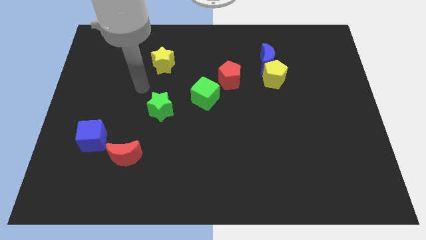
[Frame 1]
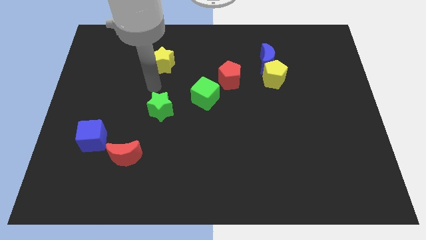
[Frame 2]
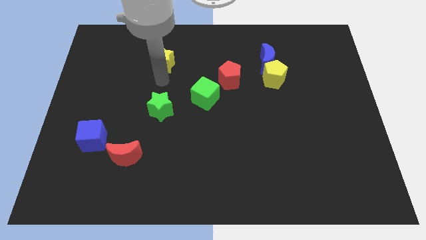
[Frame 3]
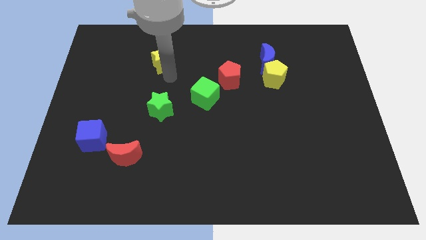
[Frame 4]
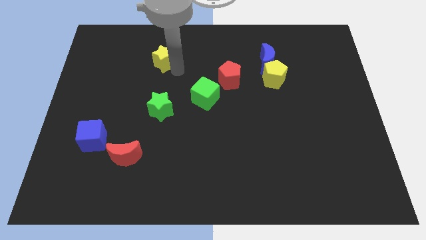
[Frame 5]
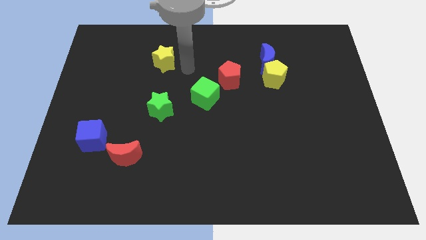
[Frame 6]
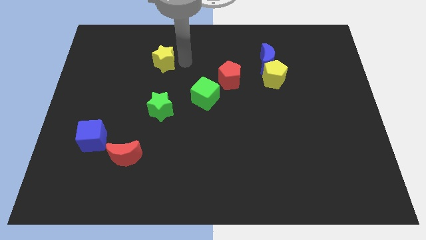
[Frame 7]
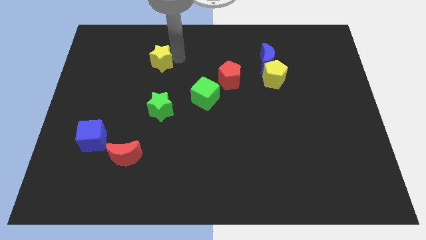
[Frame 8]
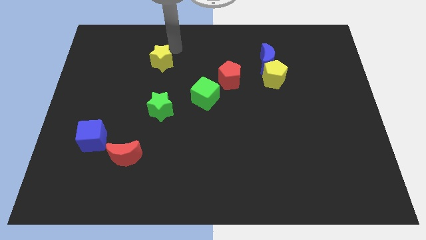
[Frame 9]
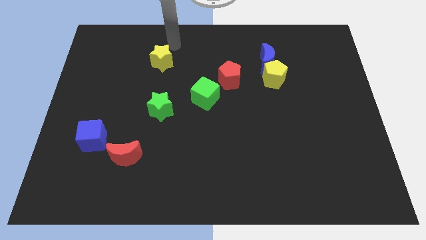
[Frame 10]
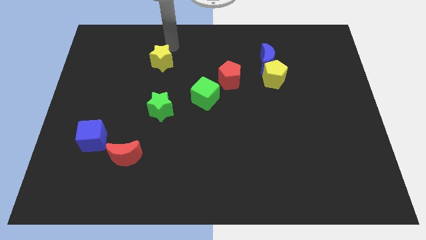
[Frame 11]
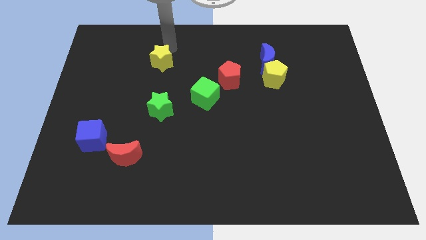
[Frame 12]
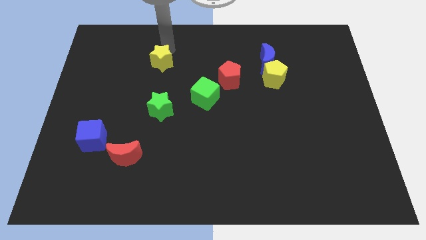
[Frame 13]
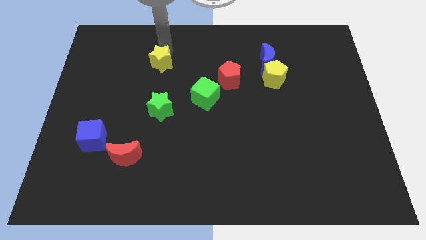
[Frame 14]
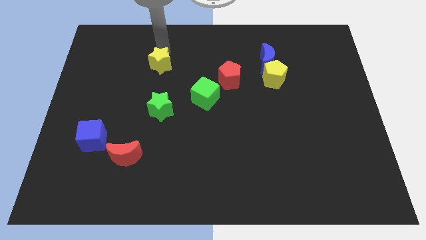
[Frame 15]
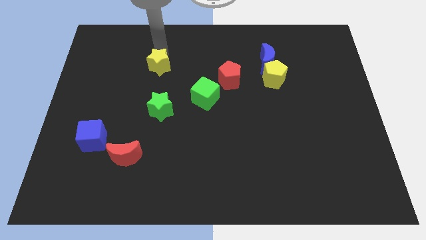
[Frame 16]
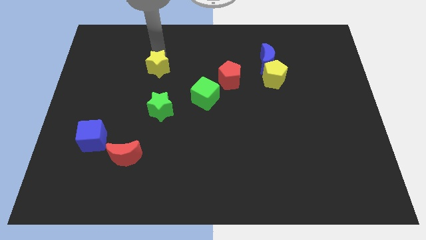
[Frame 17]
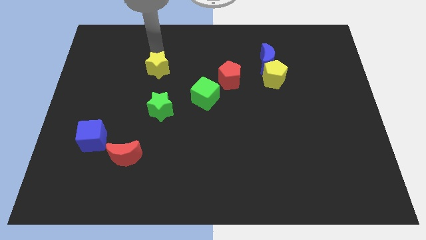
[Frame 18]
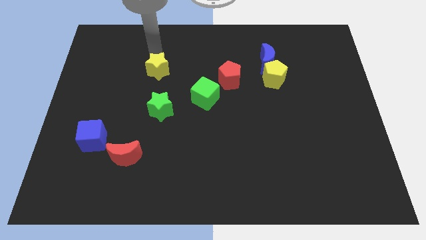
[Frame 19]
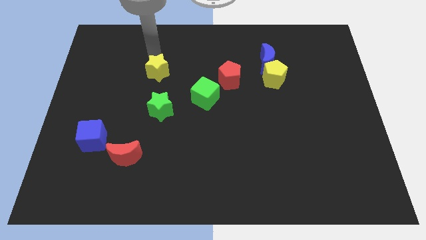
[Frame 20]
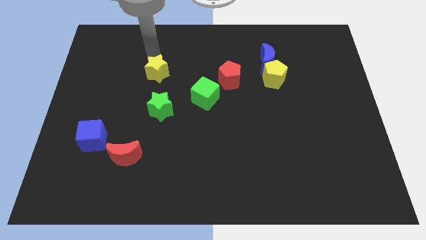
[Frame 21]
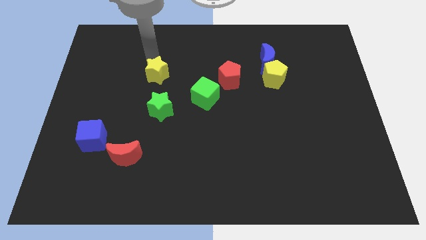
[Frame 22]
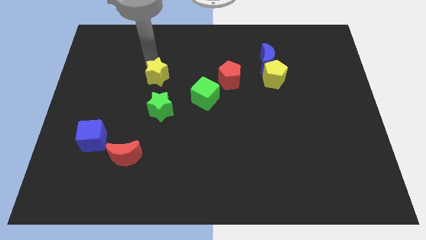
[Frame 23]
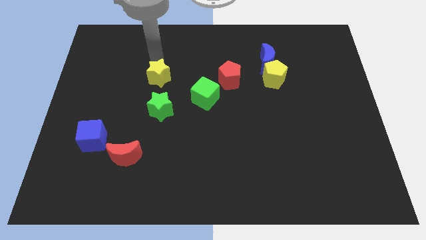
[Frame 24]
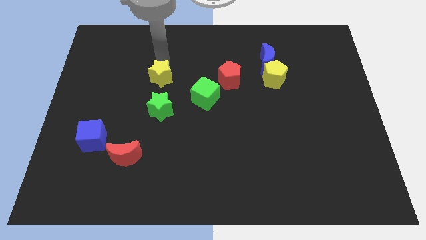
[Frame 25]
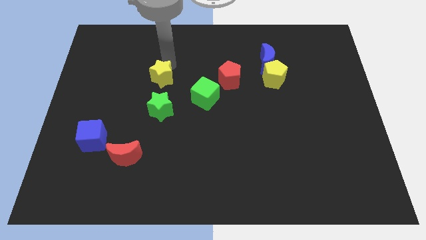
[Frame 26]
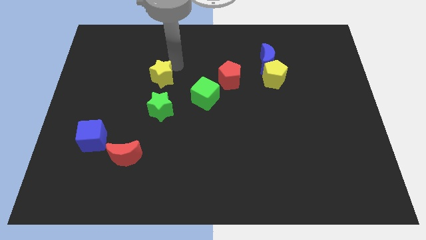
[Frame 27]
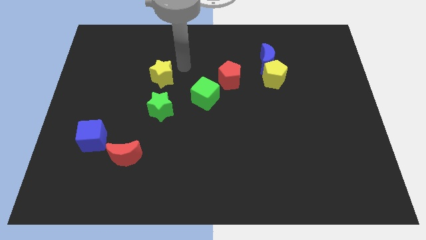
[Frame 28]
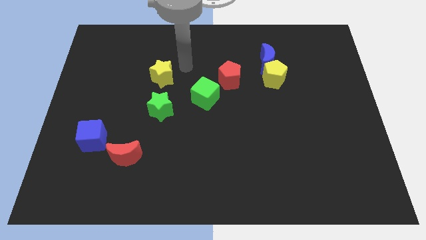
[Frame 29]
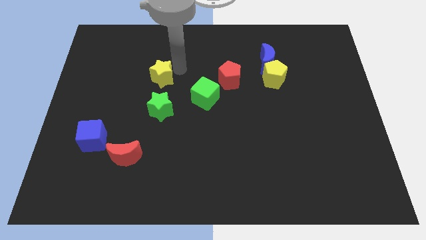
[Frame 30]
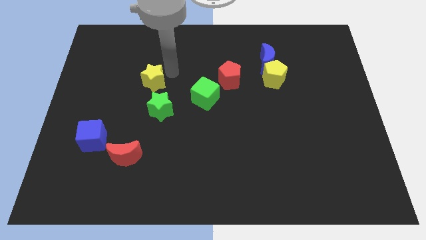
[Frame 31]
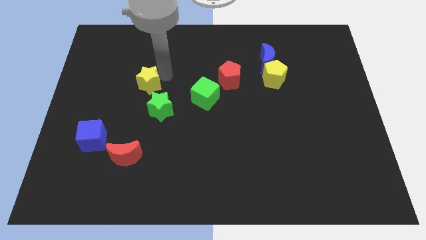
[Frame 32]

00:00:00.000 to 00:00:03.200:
push the yellow star a little bit diagonally down and to the left

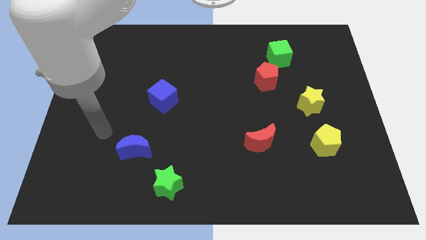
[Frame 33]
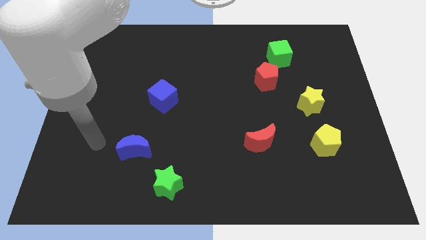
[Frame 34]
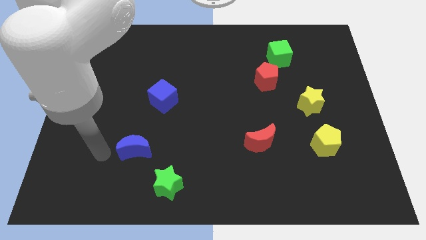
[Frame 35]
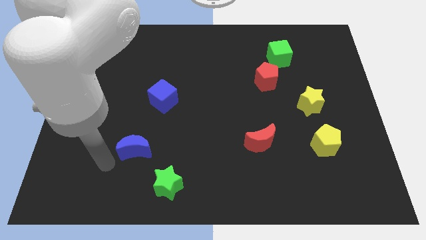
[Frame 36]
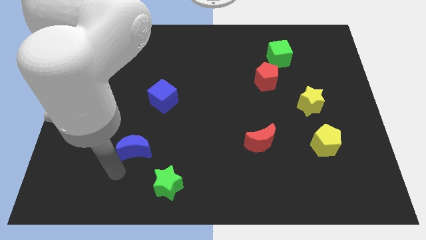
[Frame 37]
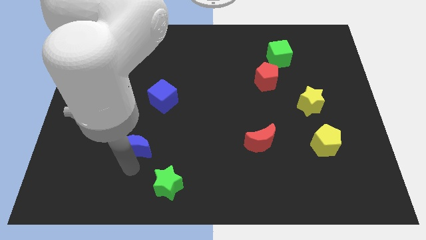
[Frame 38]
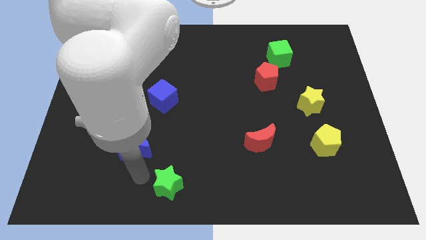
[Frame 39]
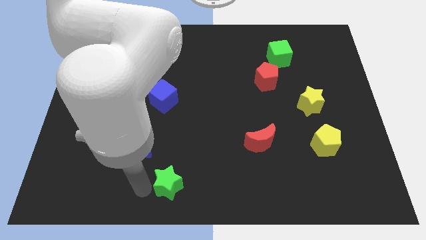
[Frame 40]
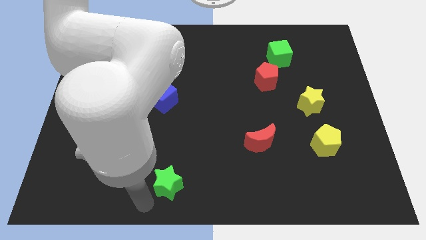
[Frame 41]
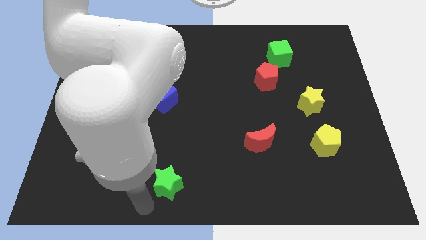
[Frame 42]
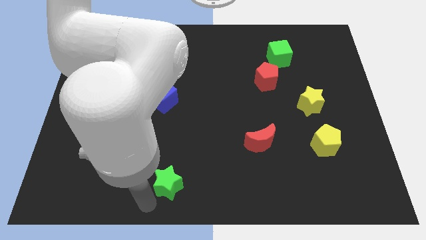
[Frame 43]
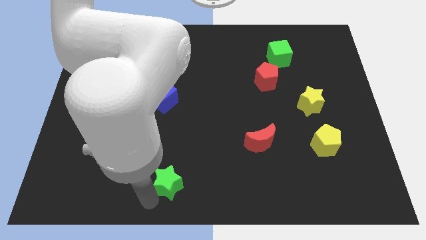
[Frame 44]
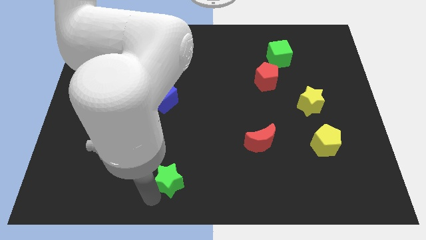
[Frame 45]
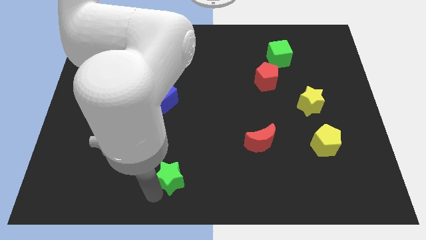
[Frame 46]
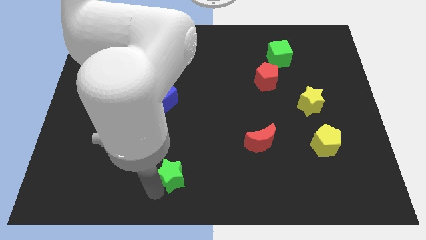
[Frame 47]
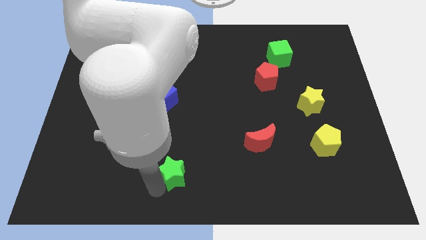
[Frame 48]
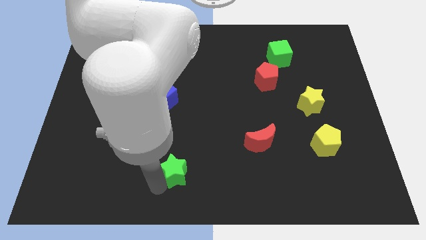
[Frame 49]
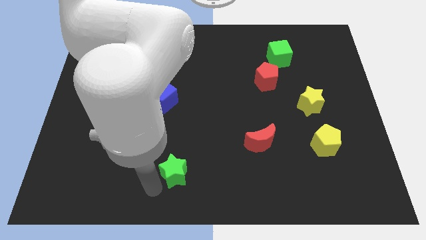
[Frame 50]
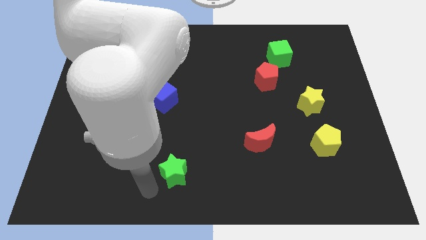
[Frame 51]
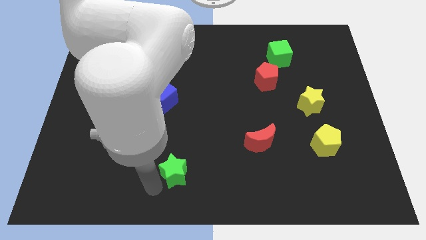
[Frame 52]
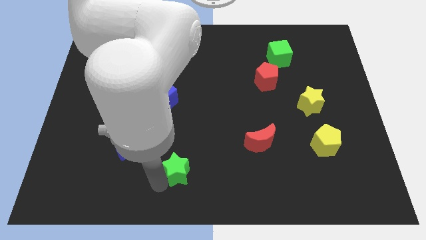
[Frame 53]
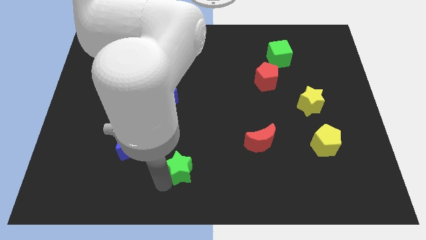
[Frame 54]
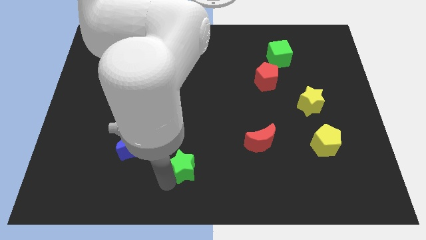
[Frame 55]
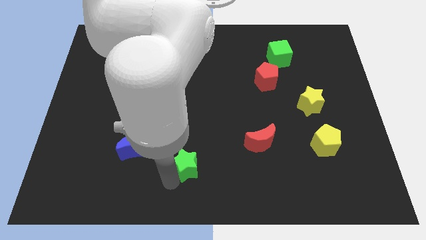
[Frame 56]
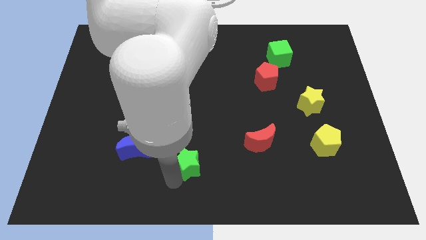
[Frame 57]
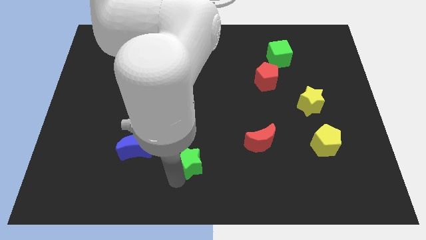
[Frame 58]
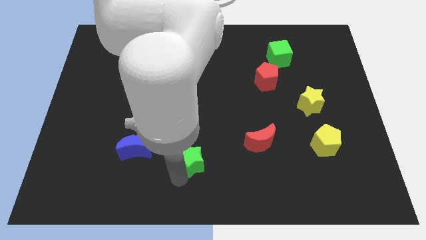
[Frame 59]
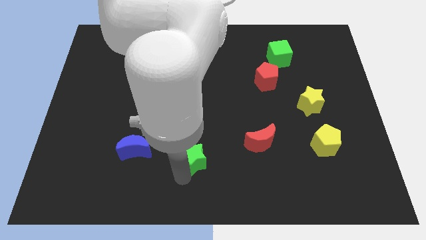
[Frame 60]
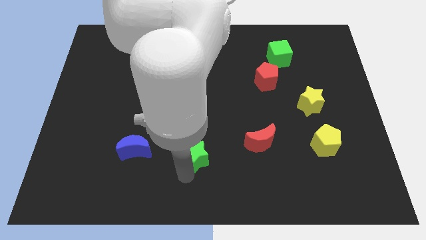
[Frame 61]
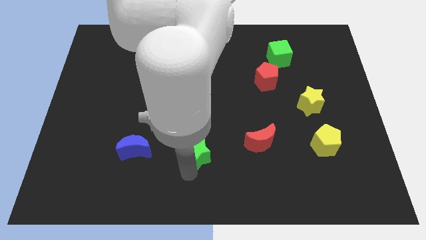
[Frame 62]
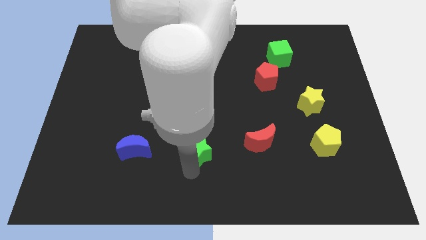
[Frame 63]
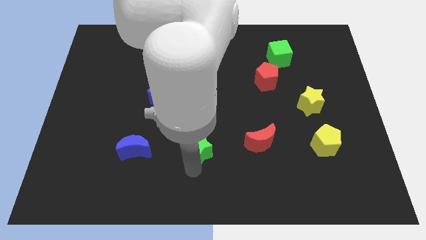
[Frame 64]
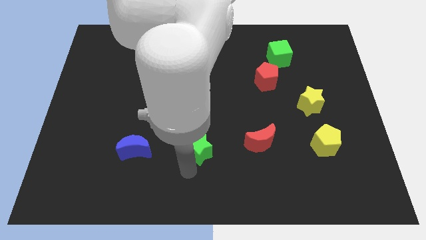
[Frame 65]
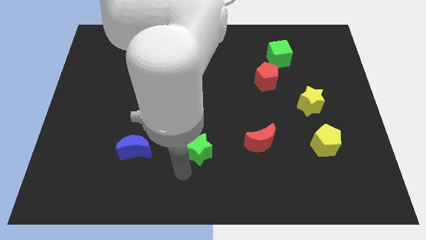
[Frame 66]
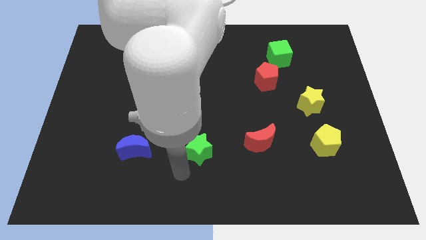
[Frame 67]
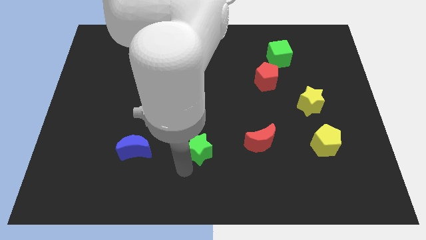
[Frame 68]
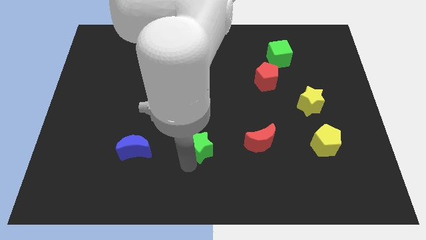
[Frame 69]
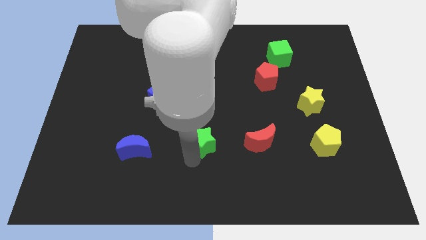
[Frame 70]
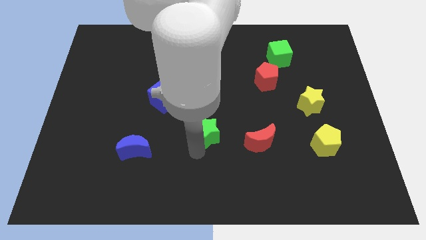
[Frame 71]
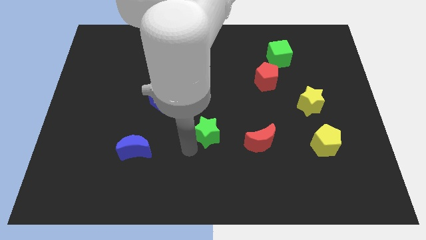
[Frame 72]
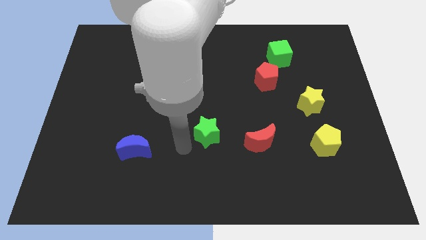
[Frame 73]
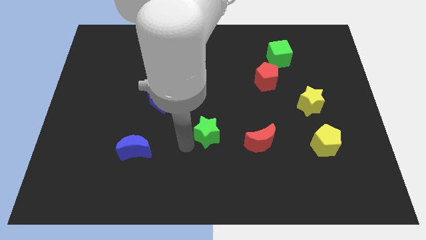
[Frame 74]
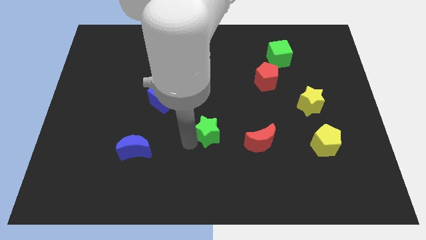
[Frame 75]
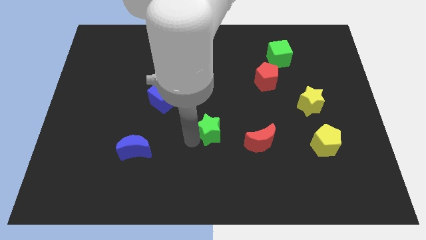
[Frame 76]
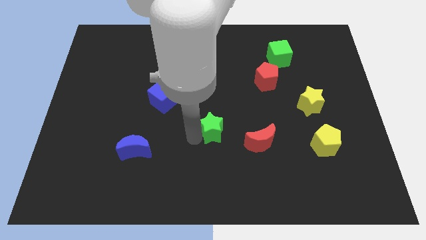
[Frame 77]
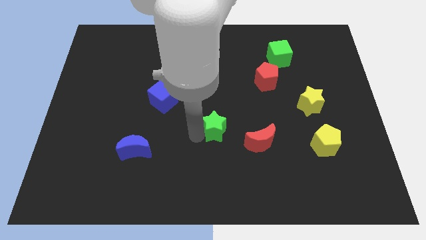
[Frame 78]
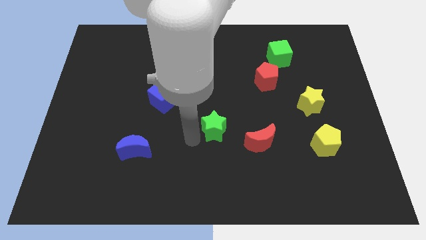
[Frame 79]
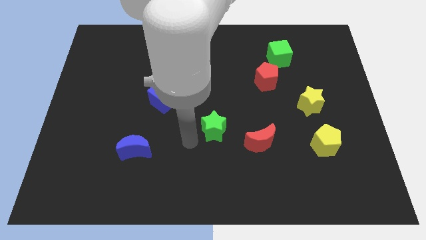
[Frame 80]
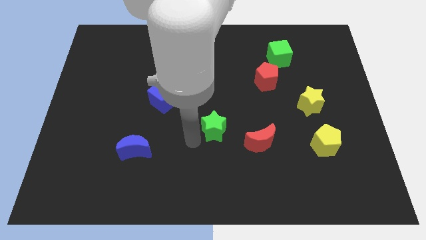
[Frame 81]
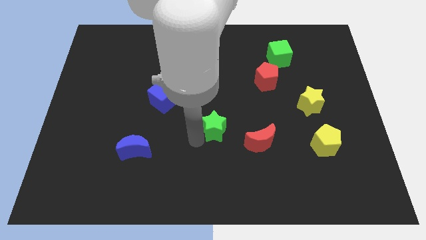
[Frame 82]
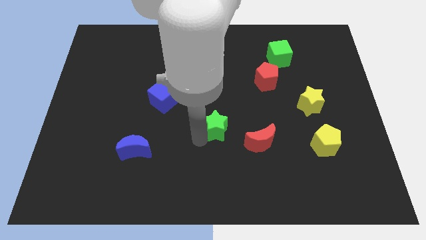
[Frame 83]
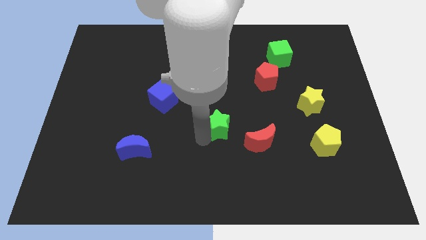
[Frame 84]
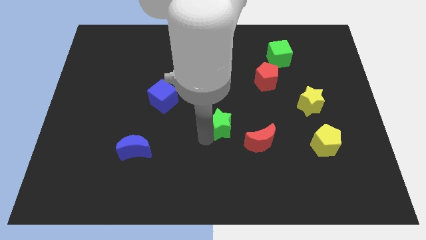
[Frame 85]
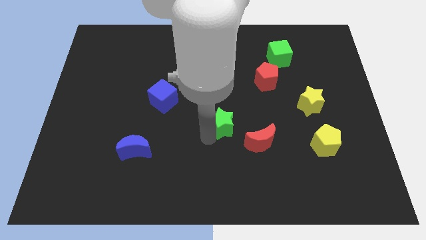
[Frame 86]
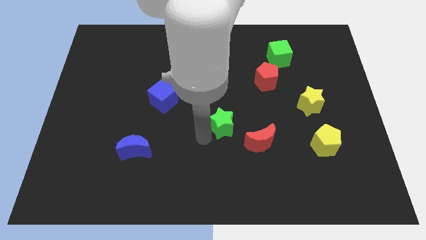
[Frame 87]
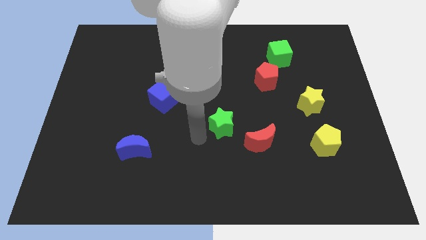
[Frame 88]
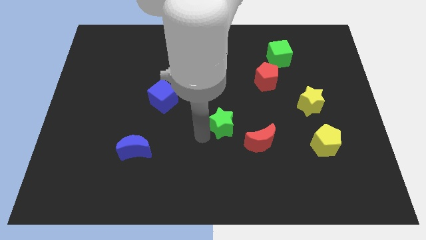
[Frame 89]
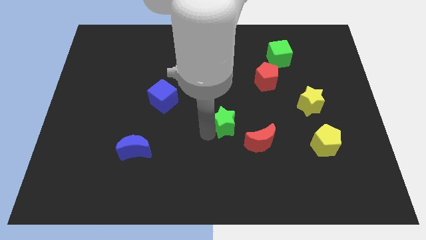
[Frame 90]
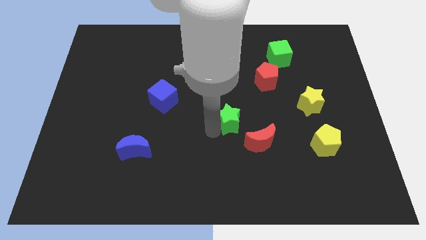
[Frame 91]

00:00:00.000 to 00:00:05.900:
push the green star up and right
